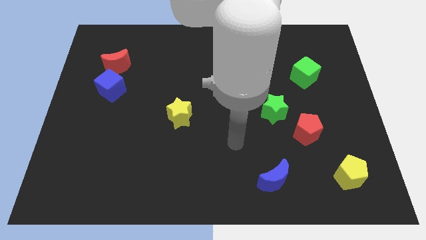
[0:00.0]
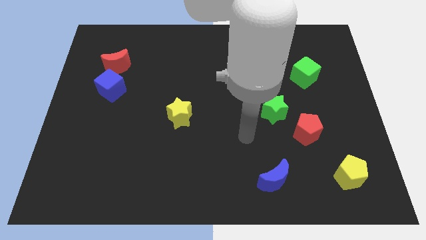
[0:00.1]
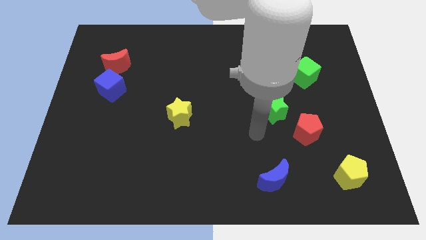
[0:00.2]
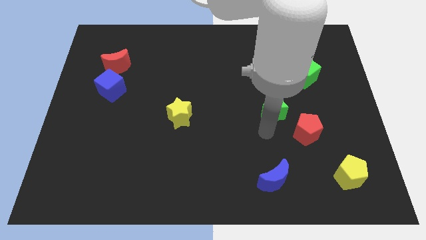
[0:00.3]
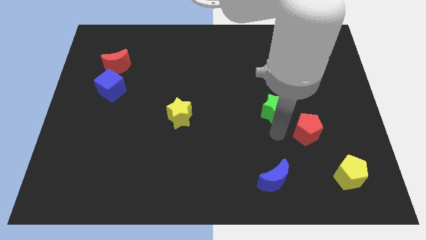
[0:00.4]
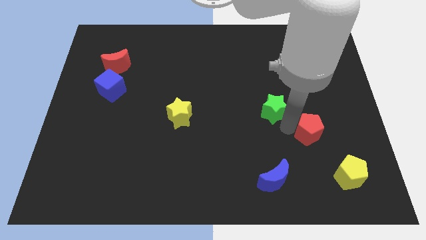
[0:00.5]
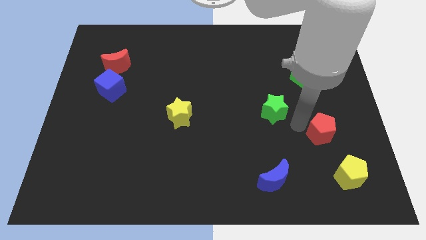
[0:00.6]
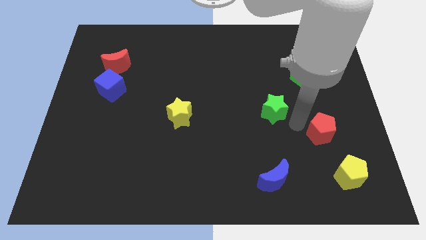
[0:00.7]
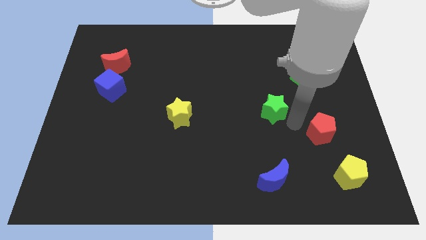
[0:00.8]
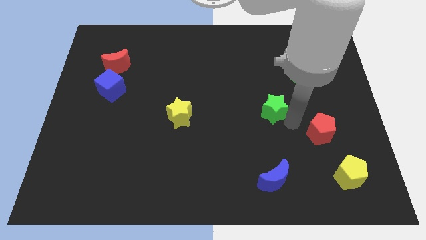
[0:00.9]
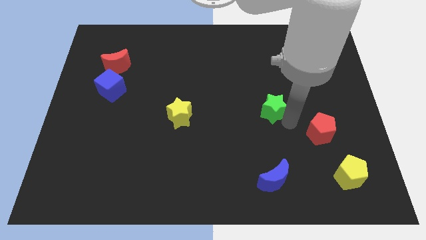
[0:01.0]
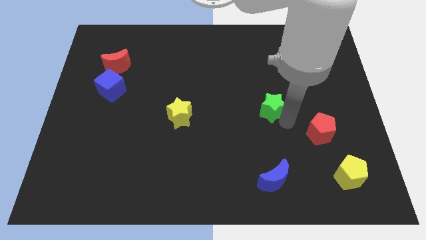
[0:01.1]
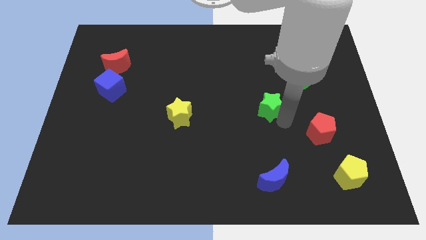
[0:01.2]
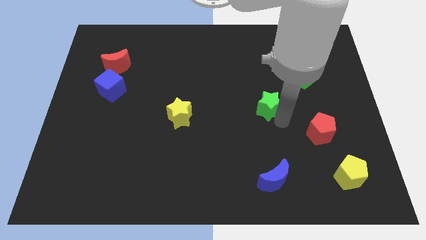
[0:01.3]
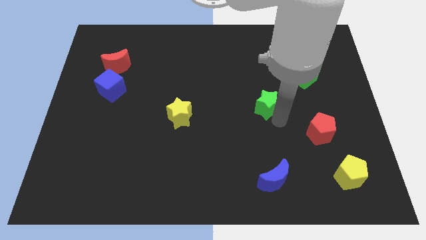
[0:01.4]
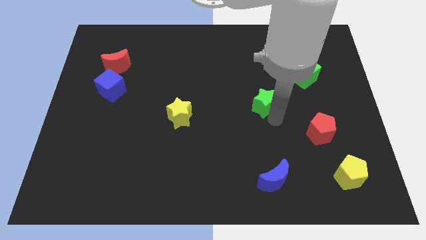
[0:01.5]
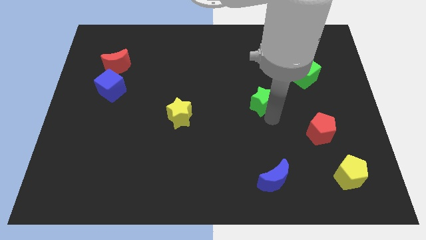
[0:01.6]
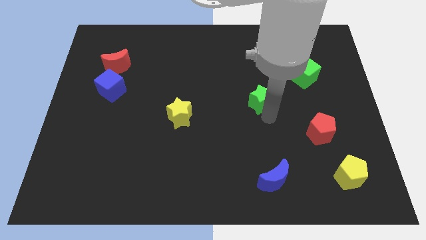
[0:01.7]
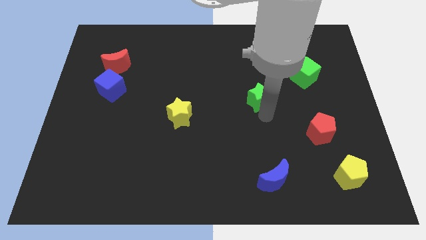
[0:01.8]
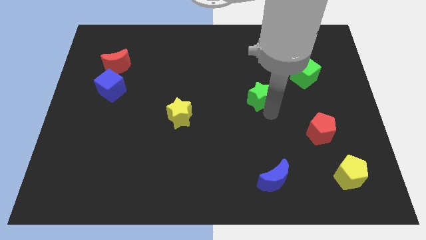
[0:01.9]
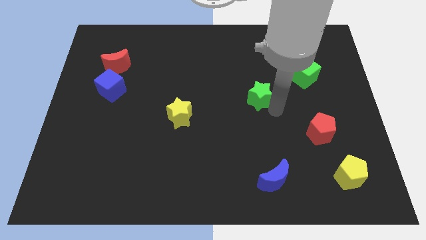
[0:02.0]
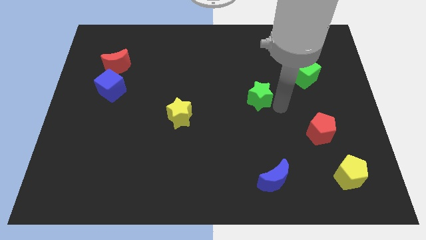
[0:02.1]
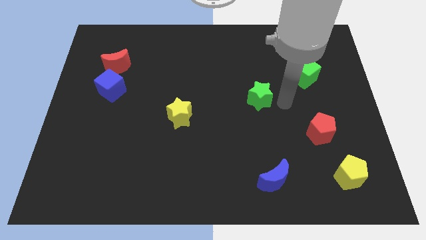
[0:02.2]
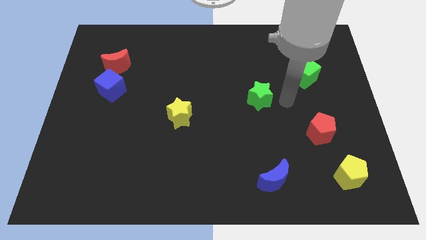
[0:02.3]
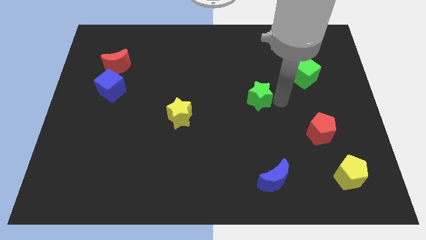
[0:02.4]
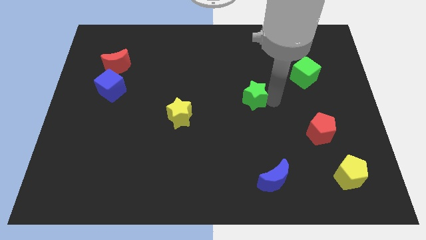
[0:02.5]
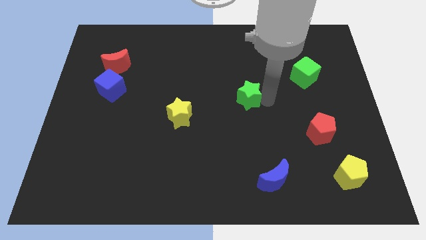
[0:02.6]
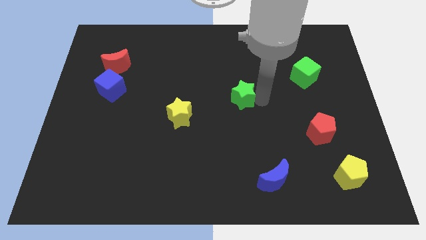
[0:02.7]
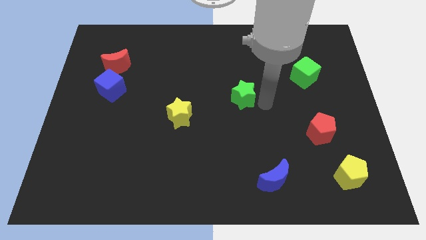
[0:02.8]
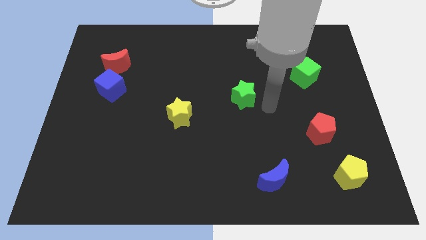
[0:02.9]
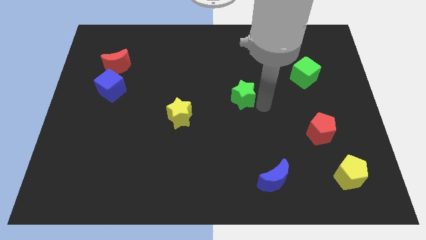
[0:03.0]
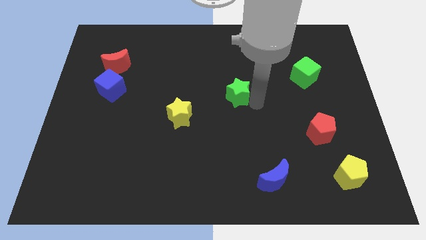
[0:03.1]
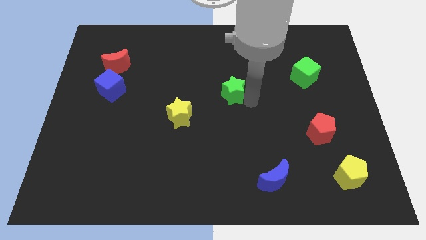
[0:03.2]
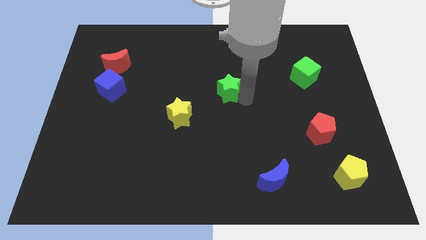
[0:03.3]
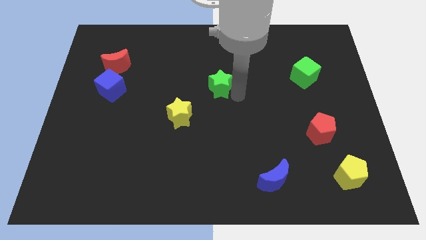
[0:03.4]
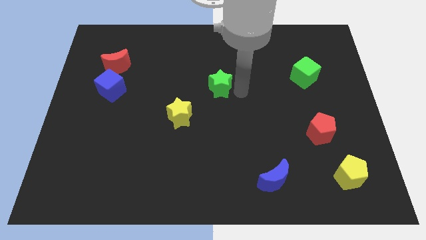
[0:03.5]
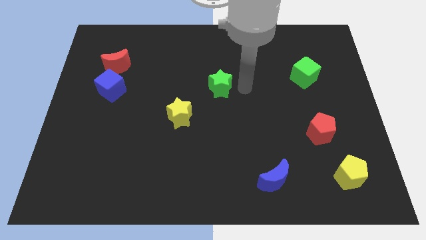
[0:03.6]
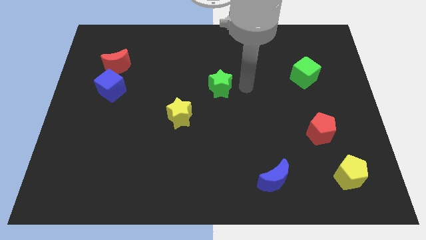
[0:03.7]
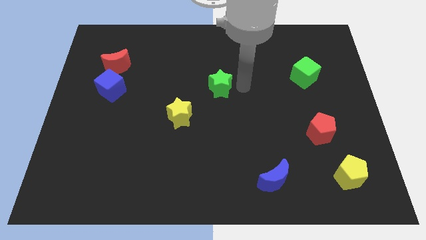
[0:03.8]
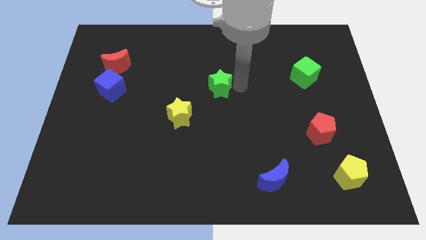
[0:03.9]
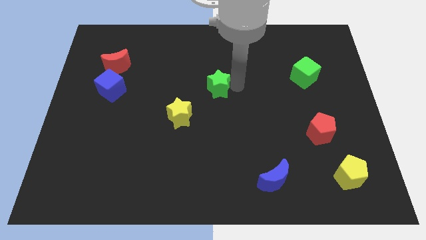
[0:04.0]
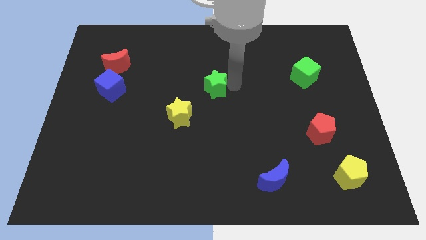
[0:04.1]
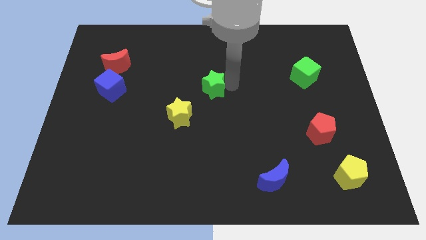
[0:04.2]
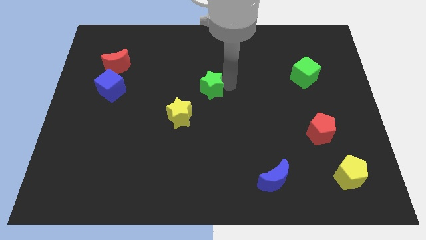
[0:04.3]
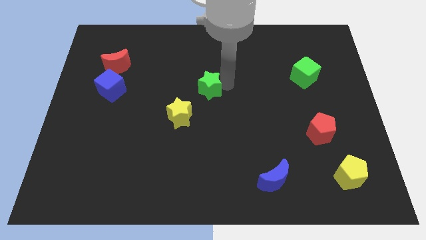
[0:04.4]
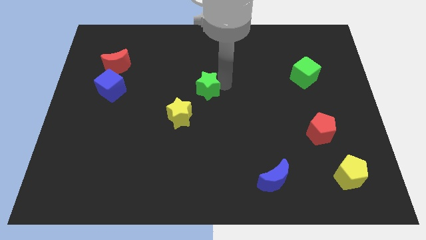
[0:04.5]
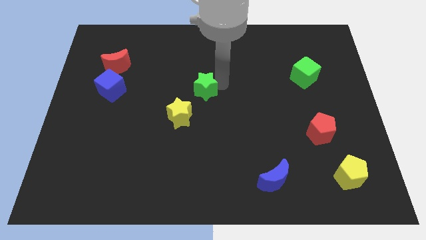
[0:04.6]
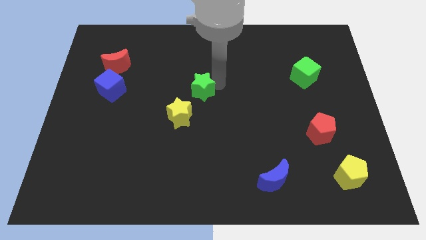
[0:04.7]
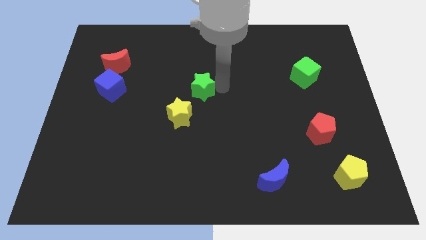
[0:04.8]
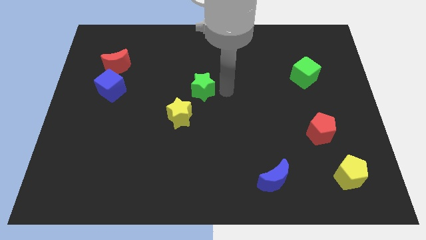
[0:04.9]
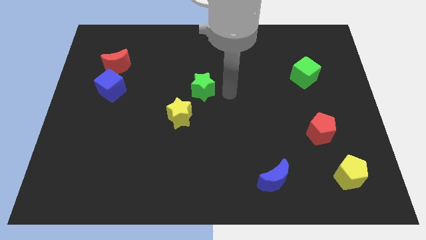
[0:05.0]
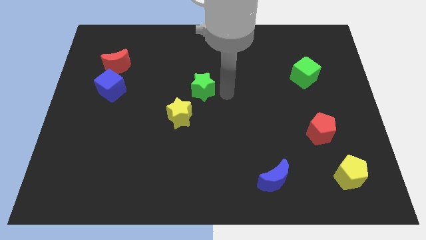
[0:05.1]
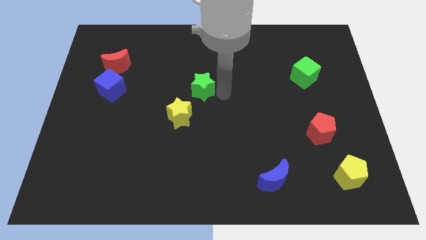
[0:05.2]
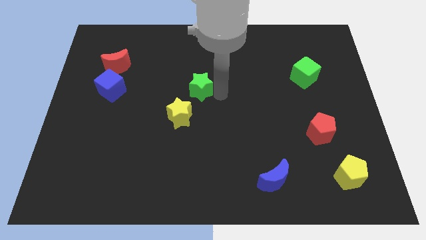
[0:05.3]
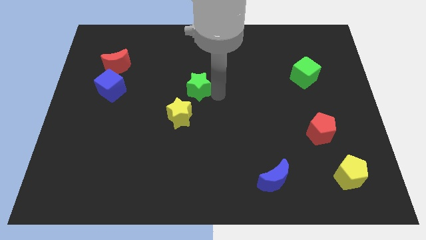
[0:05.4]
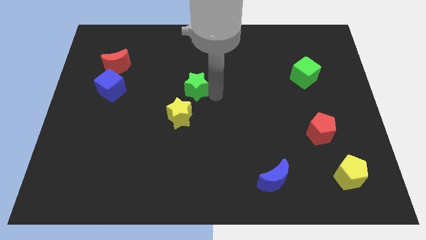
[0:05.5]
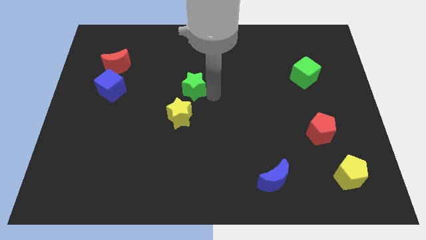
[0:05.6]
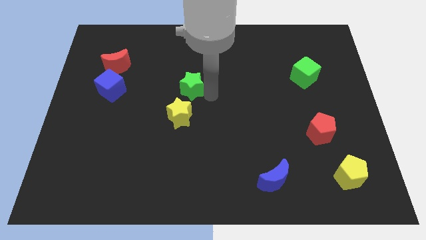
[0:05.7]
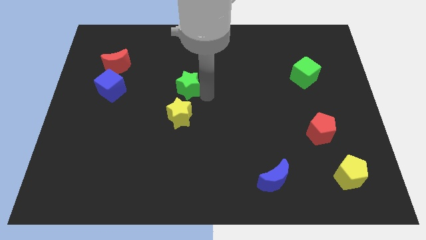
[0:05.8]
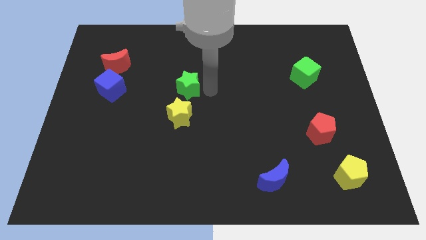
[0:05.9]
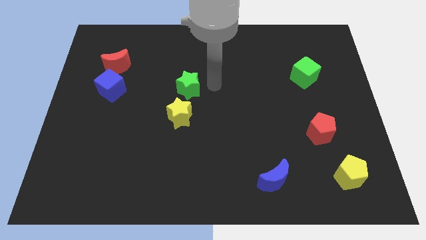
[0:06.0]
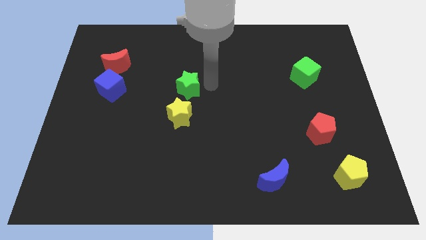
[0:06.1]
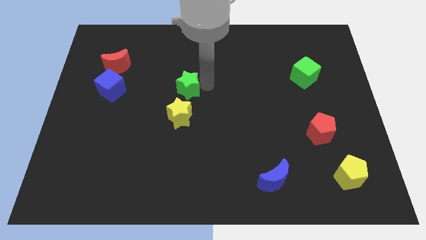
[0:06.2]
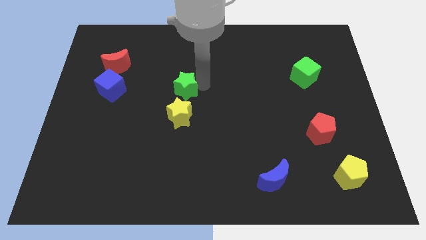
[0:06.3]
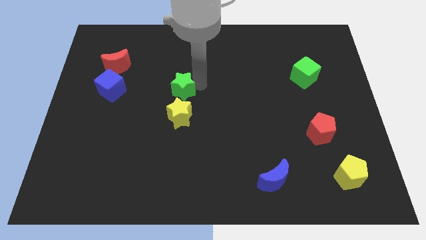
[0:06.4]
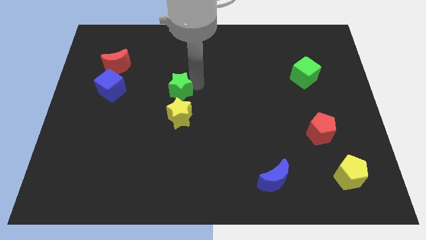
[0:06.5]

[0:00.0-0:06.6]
push the green star to the left

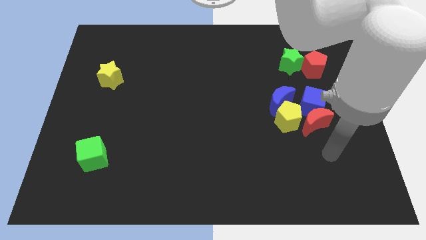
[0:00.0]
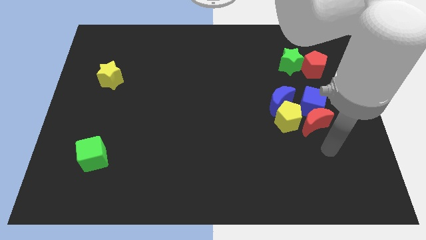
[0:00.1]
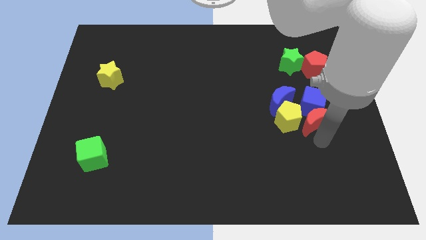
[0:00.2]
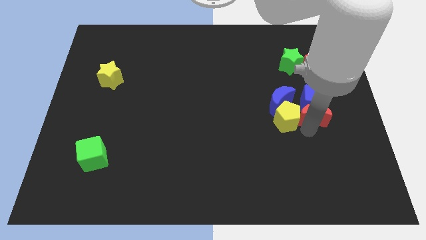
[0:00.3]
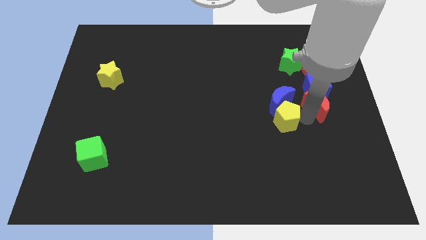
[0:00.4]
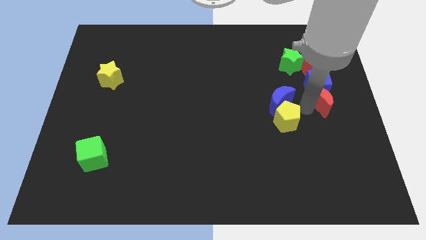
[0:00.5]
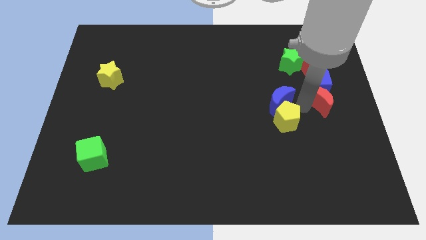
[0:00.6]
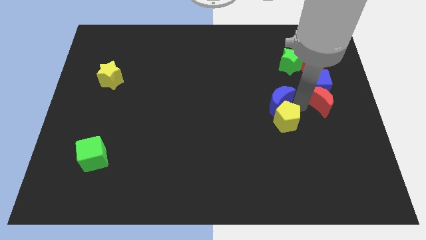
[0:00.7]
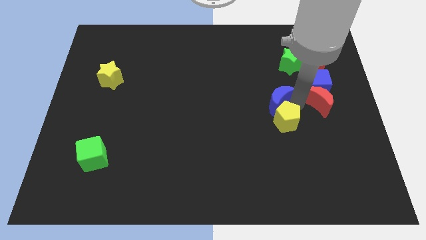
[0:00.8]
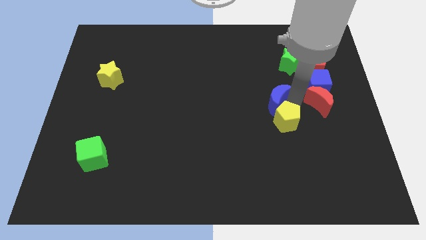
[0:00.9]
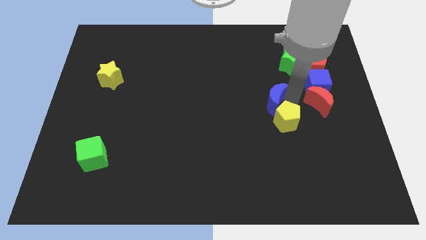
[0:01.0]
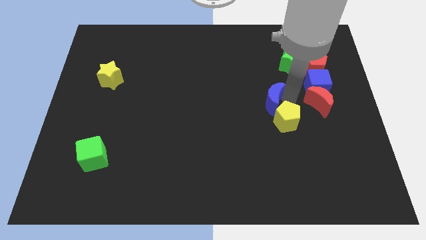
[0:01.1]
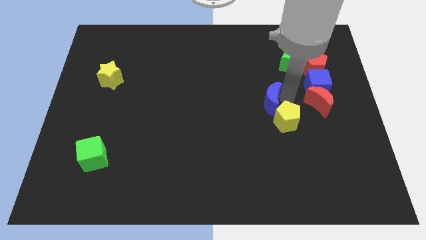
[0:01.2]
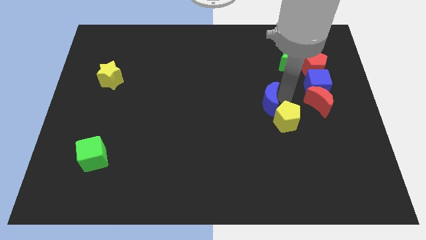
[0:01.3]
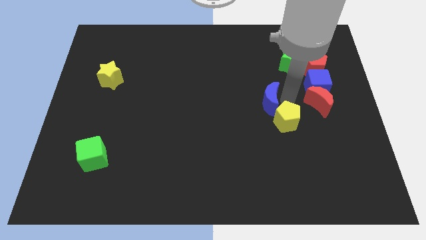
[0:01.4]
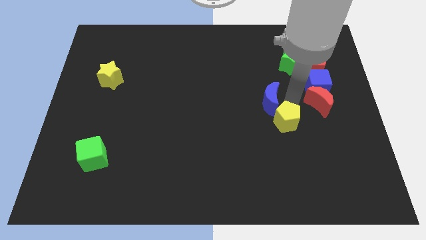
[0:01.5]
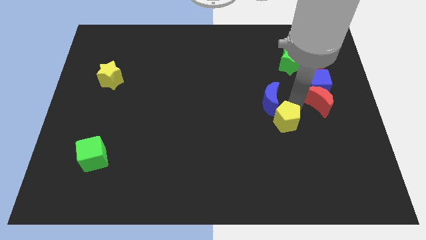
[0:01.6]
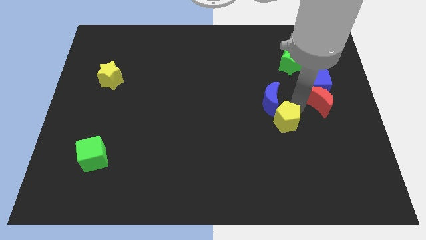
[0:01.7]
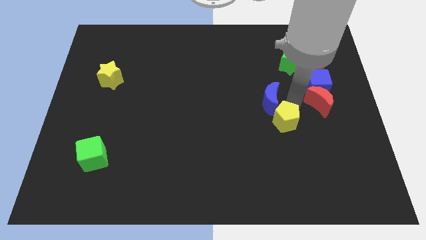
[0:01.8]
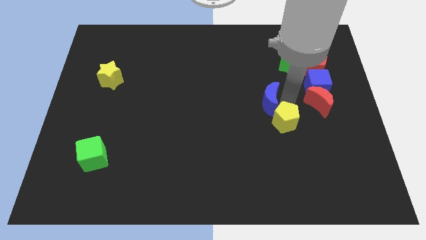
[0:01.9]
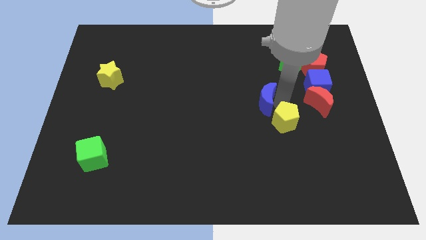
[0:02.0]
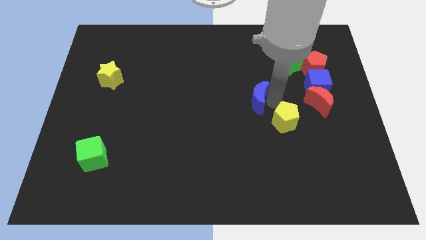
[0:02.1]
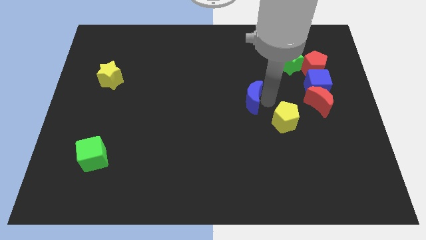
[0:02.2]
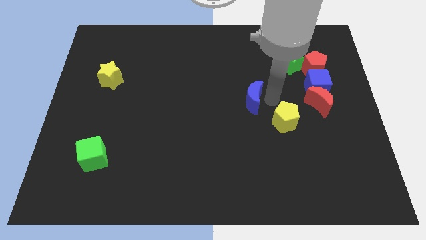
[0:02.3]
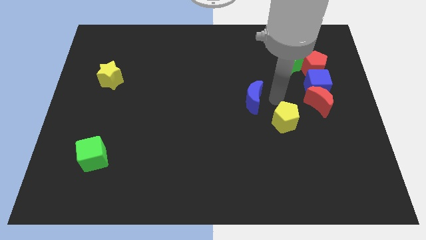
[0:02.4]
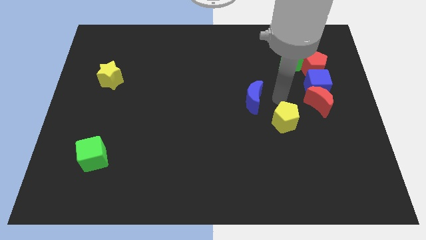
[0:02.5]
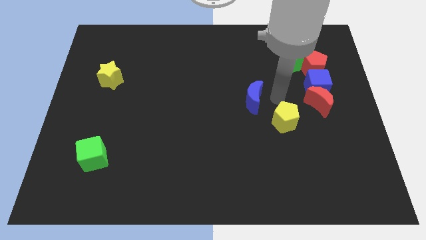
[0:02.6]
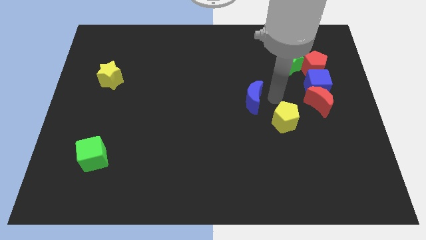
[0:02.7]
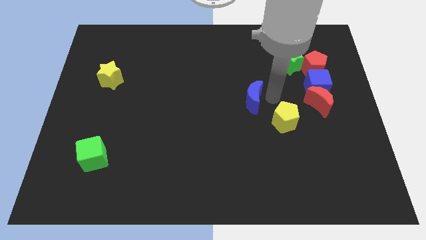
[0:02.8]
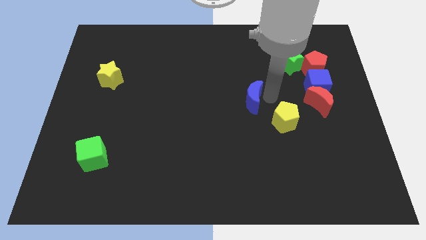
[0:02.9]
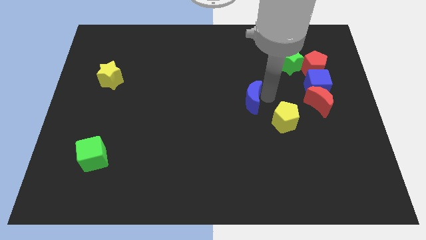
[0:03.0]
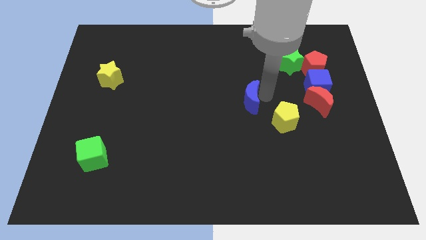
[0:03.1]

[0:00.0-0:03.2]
slide the blue moon left a little
